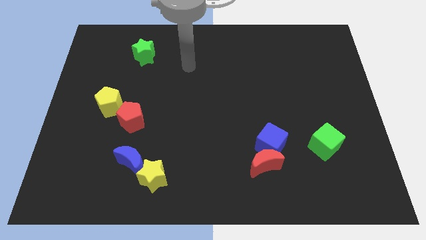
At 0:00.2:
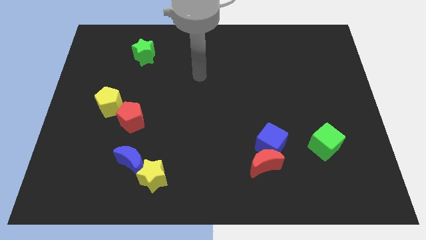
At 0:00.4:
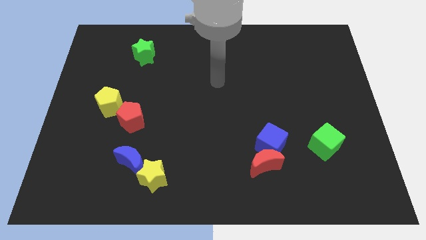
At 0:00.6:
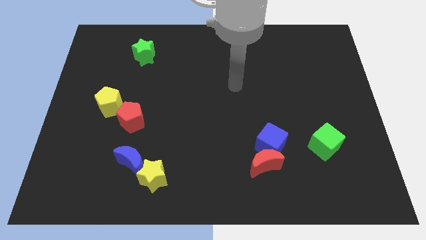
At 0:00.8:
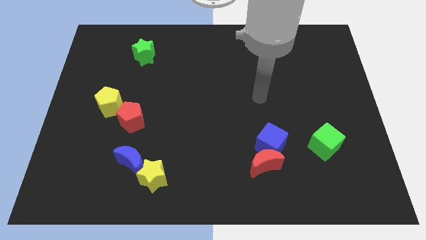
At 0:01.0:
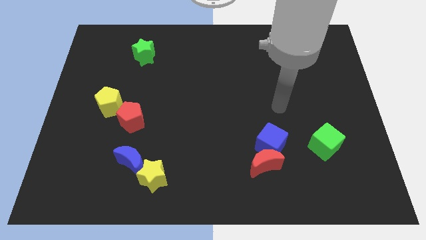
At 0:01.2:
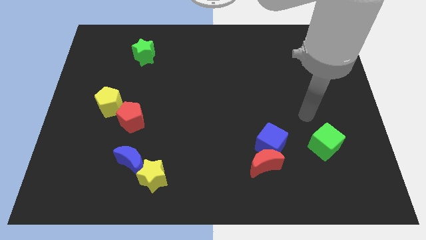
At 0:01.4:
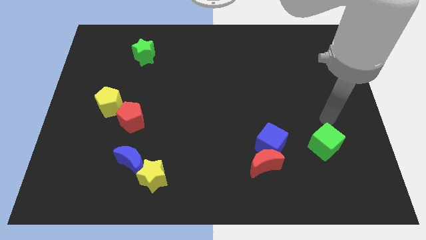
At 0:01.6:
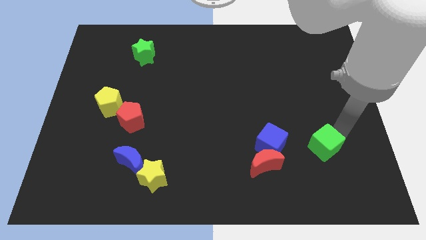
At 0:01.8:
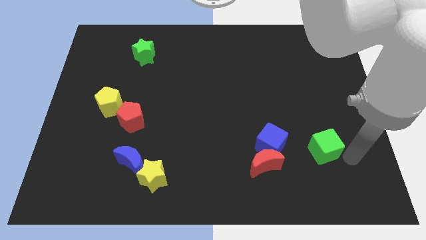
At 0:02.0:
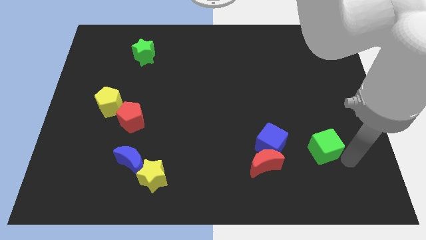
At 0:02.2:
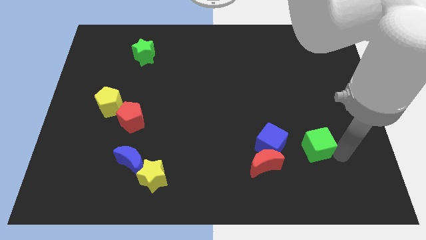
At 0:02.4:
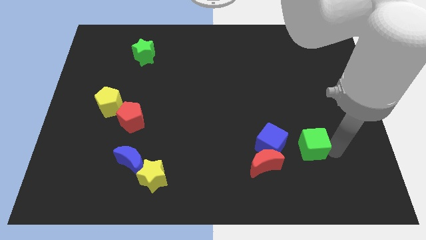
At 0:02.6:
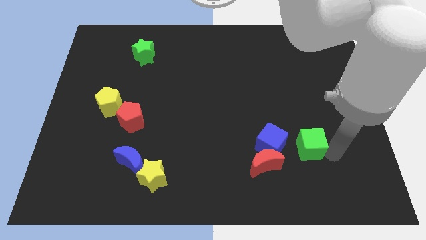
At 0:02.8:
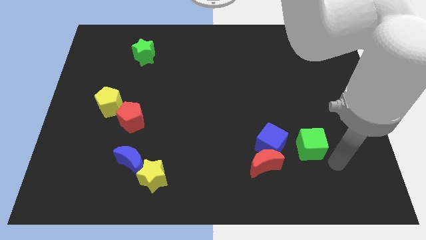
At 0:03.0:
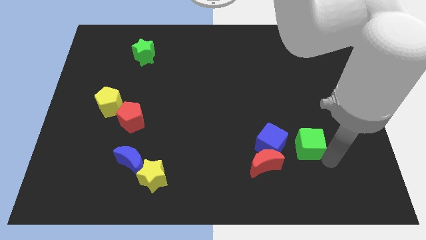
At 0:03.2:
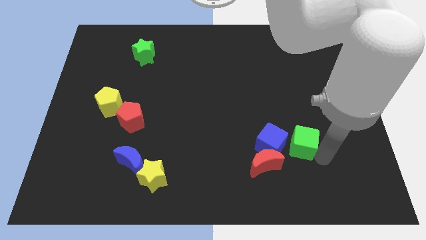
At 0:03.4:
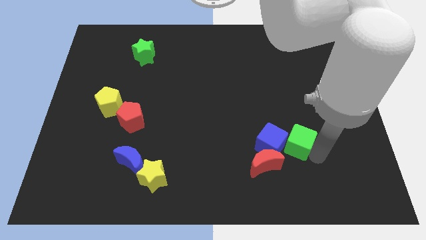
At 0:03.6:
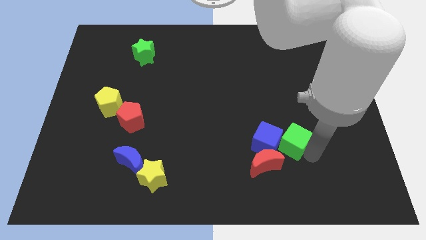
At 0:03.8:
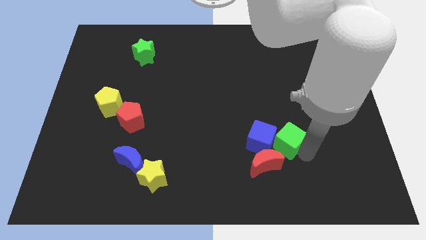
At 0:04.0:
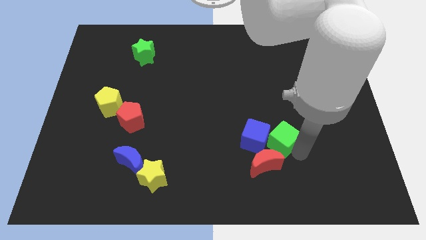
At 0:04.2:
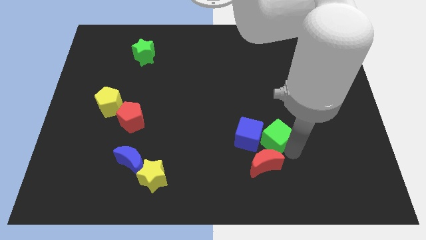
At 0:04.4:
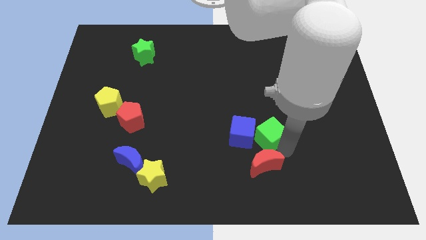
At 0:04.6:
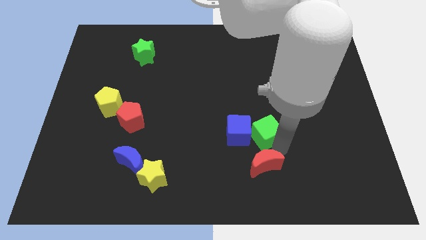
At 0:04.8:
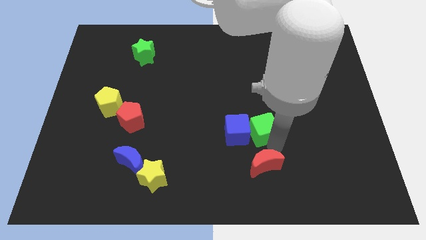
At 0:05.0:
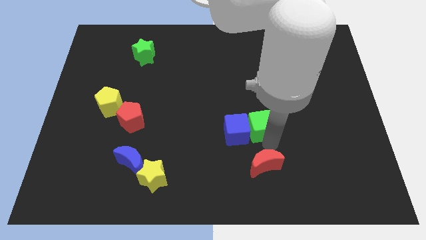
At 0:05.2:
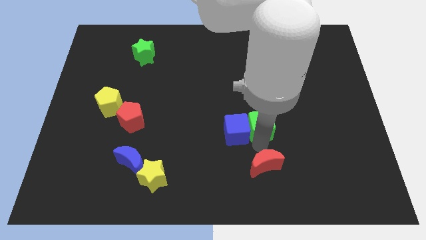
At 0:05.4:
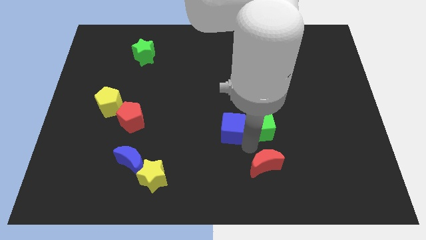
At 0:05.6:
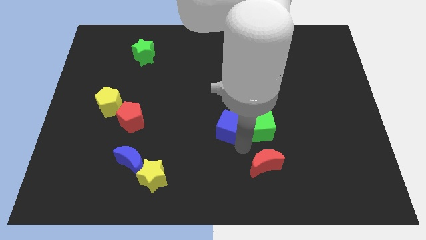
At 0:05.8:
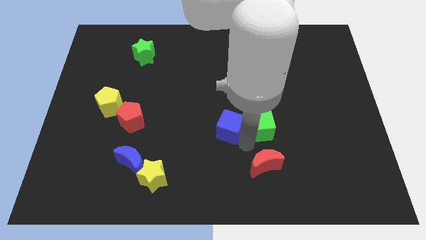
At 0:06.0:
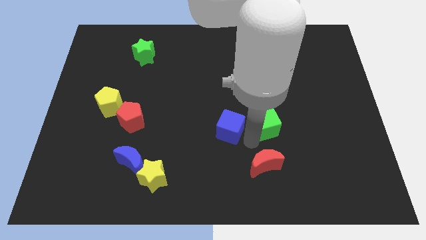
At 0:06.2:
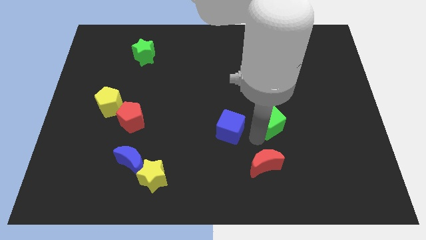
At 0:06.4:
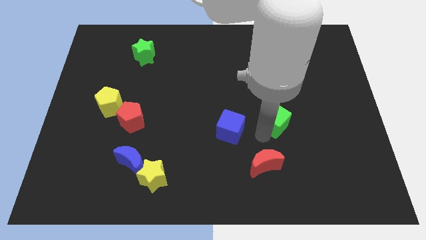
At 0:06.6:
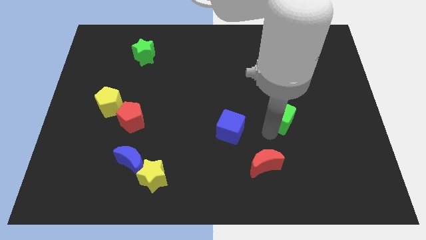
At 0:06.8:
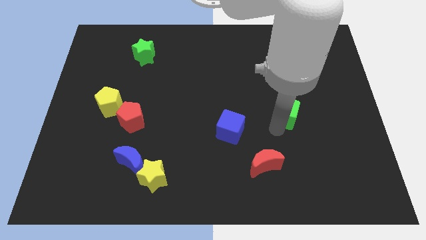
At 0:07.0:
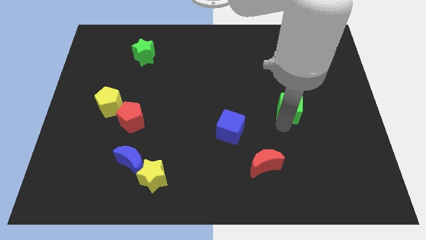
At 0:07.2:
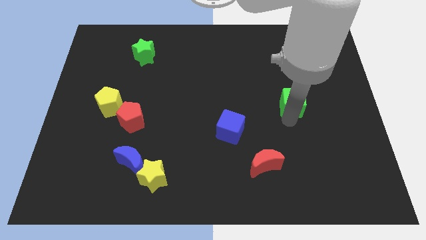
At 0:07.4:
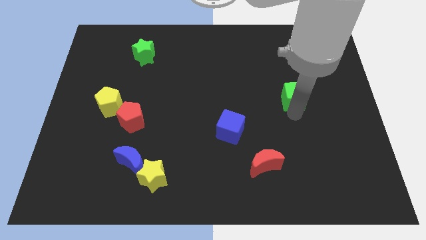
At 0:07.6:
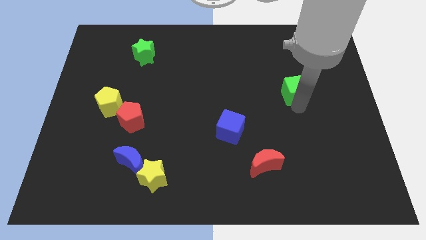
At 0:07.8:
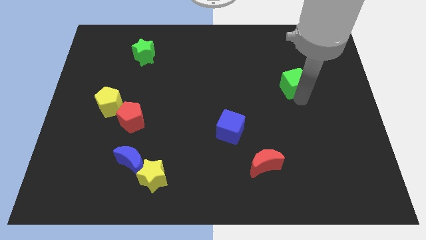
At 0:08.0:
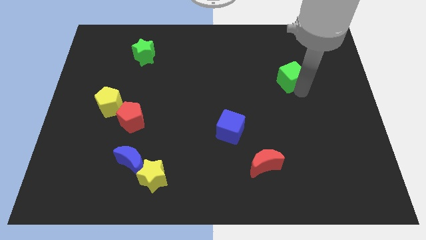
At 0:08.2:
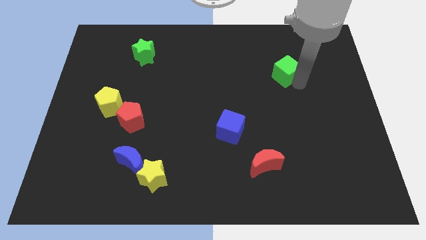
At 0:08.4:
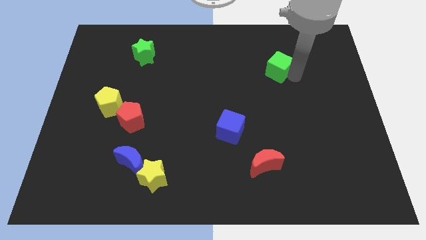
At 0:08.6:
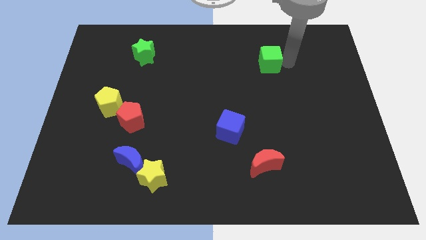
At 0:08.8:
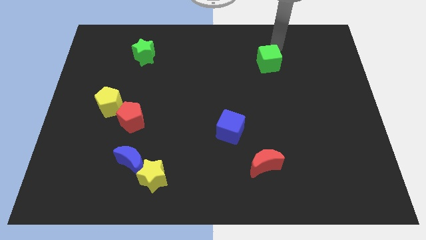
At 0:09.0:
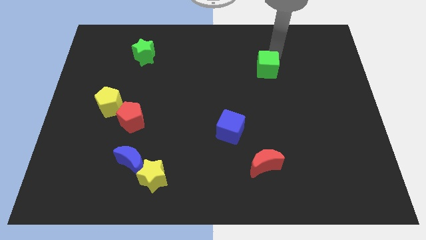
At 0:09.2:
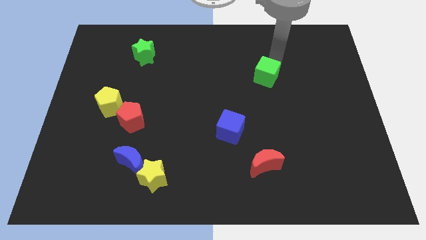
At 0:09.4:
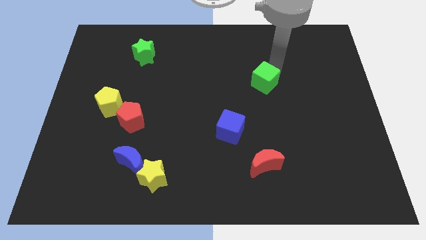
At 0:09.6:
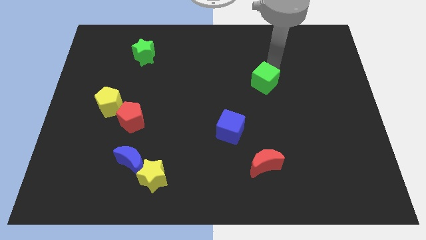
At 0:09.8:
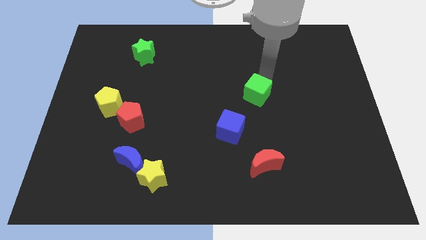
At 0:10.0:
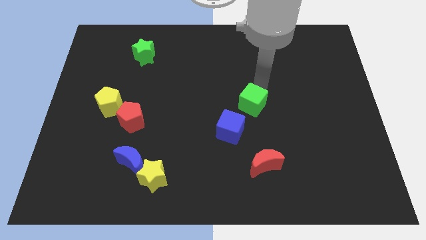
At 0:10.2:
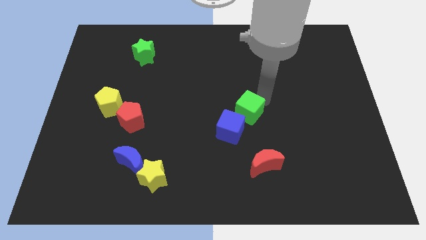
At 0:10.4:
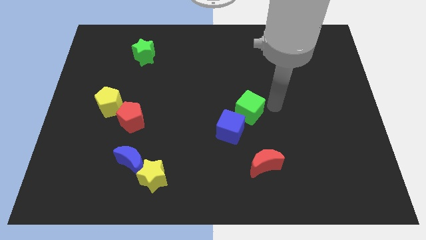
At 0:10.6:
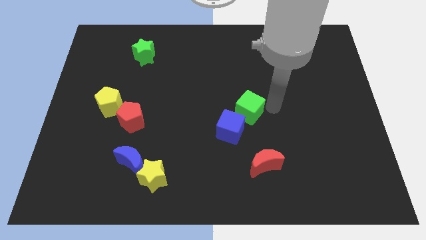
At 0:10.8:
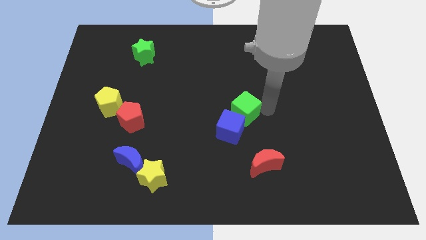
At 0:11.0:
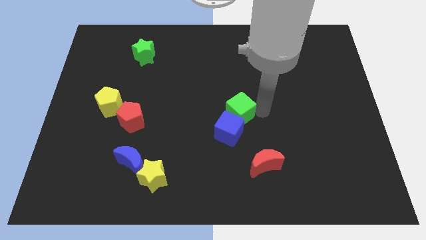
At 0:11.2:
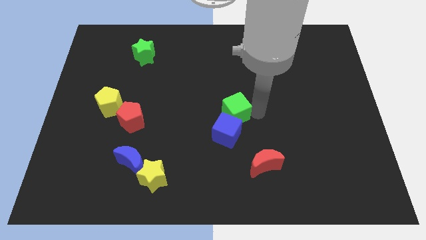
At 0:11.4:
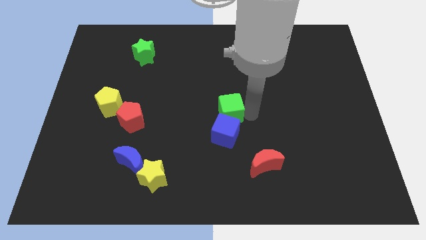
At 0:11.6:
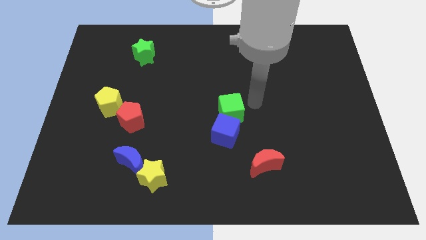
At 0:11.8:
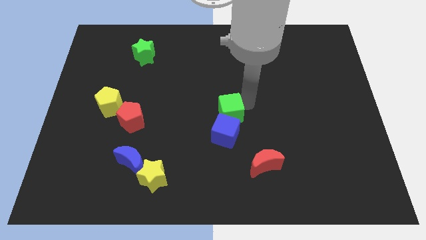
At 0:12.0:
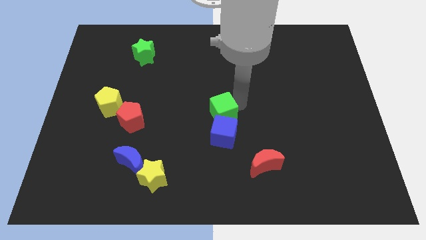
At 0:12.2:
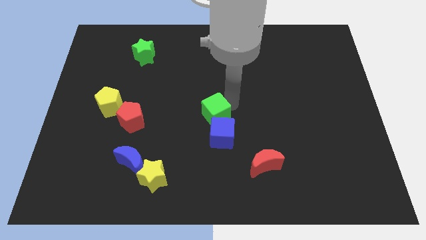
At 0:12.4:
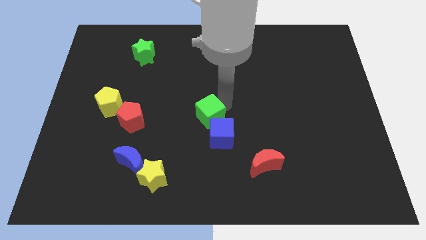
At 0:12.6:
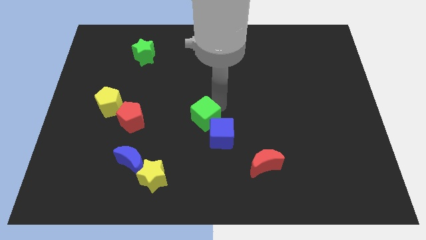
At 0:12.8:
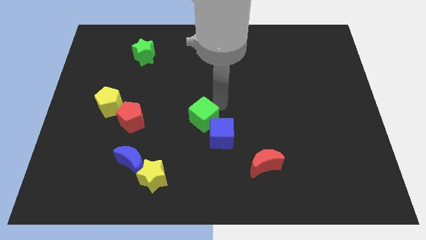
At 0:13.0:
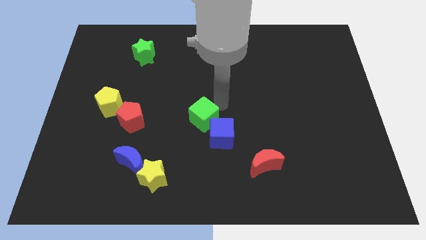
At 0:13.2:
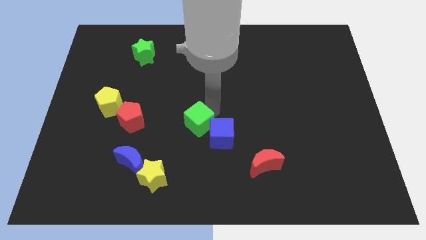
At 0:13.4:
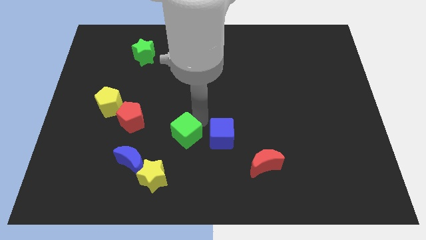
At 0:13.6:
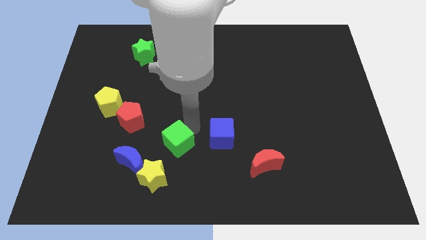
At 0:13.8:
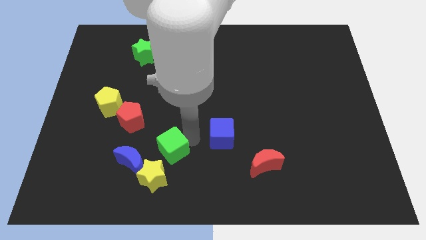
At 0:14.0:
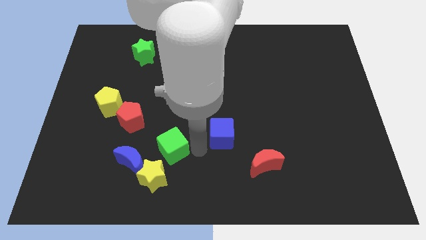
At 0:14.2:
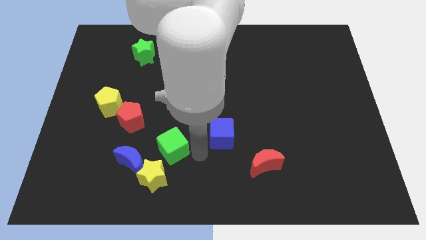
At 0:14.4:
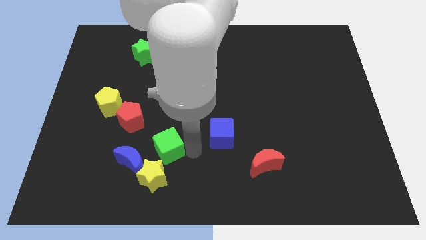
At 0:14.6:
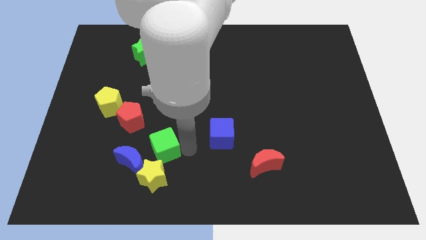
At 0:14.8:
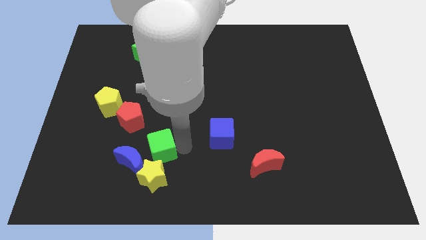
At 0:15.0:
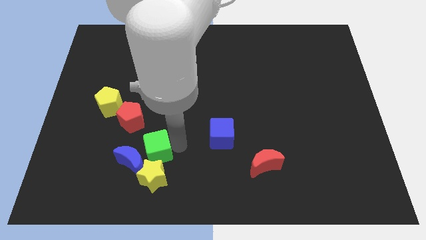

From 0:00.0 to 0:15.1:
slide the green cube to the top left of the yellow star
